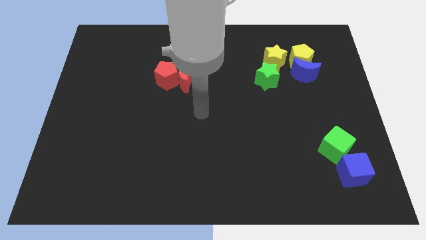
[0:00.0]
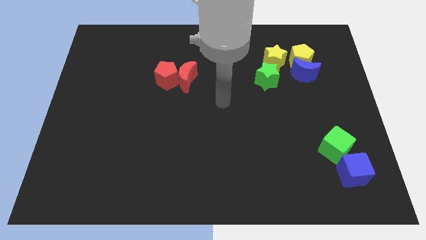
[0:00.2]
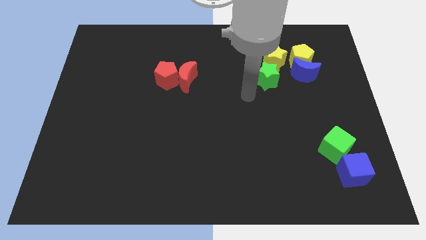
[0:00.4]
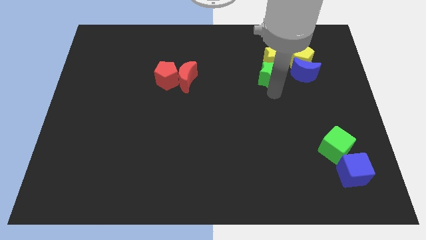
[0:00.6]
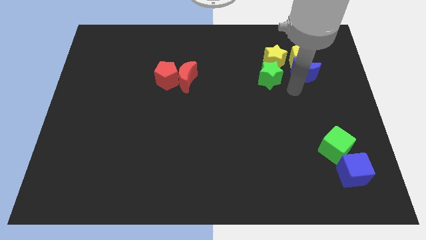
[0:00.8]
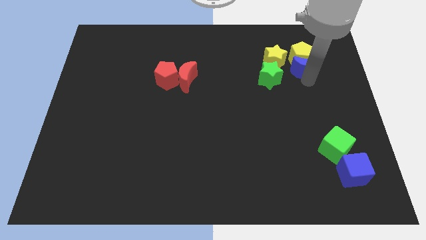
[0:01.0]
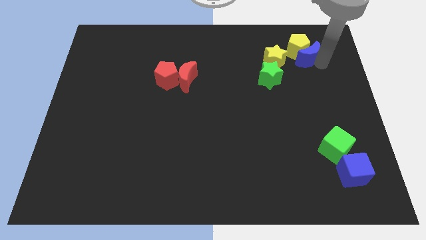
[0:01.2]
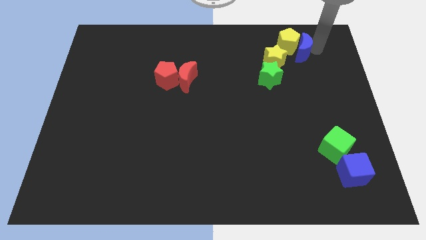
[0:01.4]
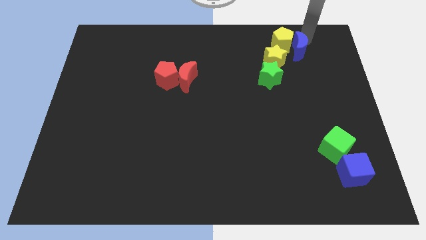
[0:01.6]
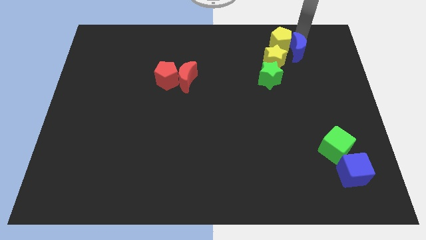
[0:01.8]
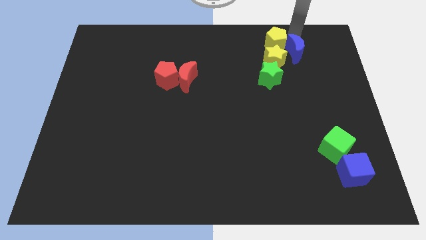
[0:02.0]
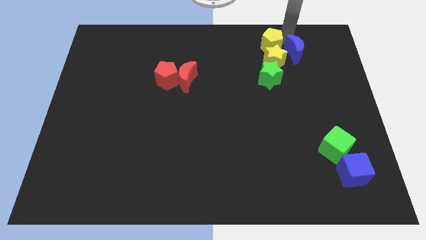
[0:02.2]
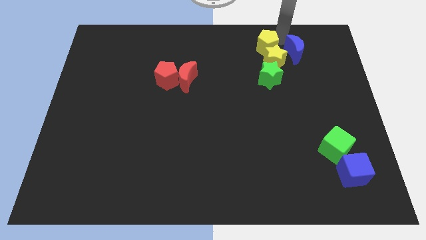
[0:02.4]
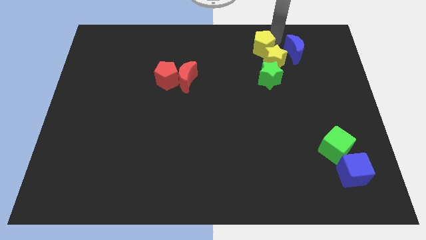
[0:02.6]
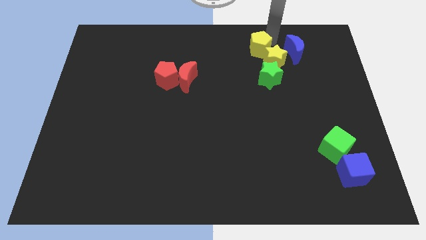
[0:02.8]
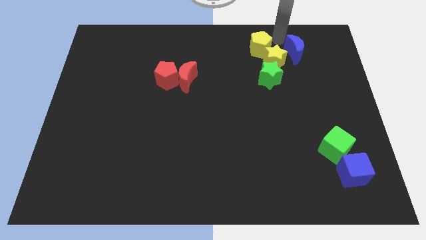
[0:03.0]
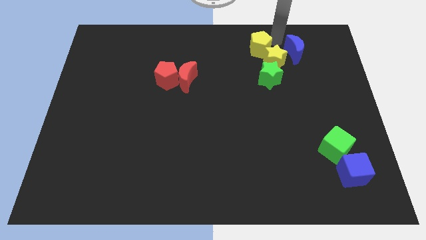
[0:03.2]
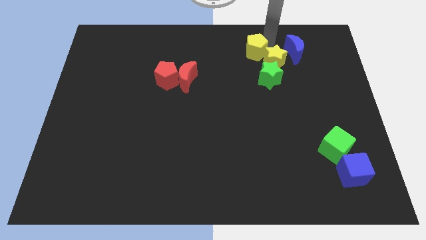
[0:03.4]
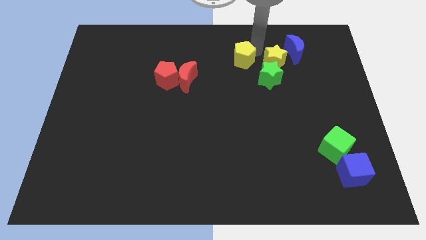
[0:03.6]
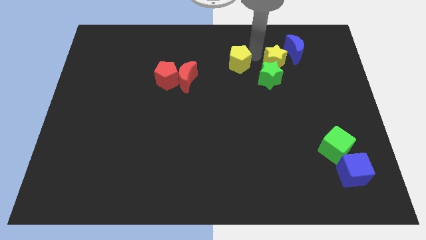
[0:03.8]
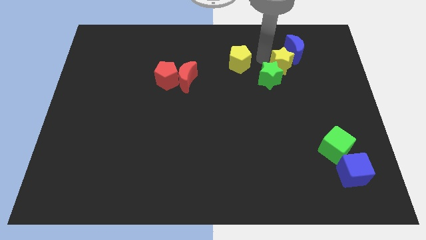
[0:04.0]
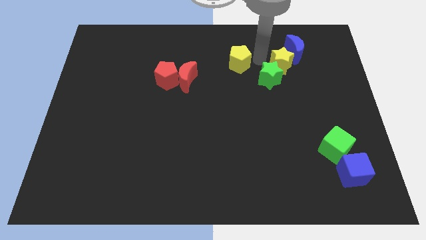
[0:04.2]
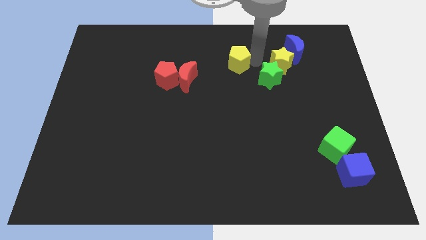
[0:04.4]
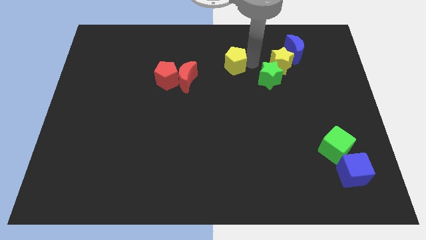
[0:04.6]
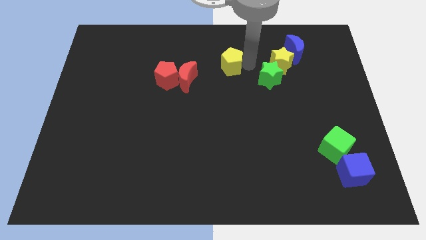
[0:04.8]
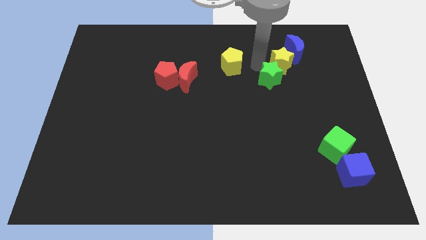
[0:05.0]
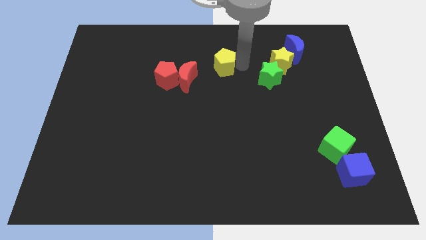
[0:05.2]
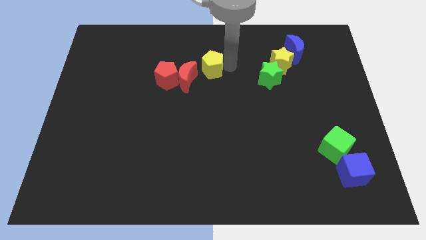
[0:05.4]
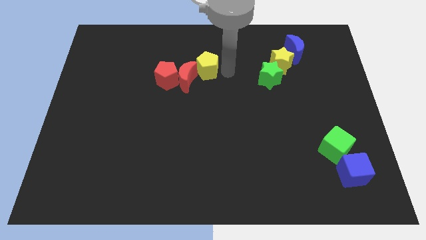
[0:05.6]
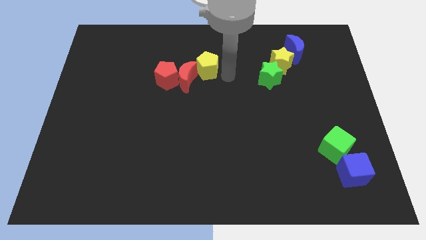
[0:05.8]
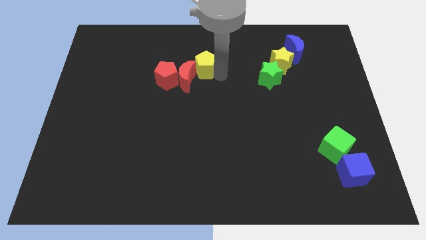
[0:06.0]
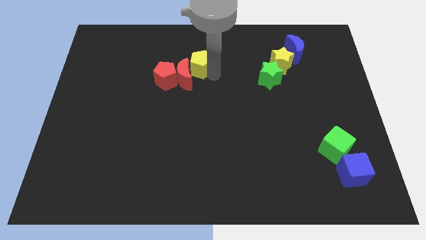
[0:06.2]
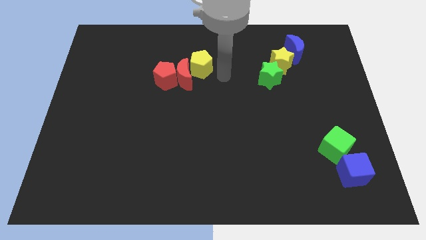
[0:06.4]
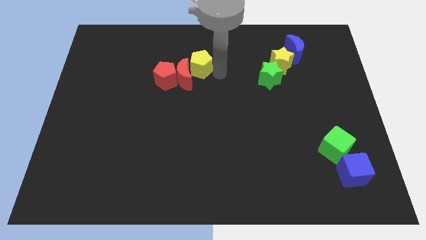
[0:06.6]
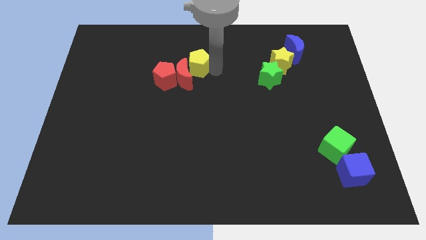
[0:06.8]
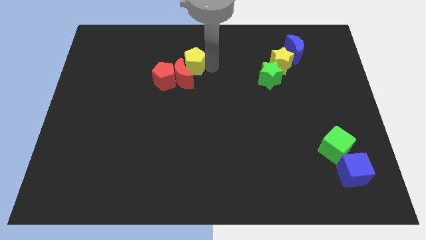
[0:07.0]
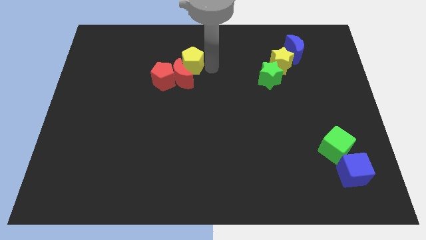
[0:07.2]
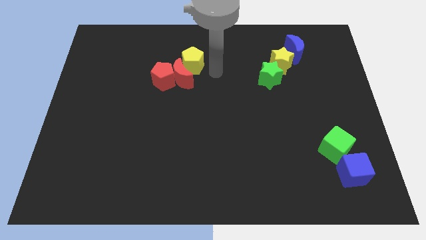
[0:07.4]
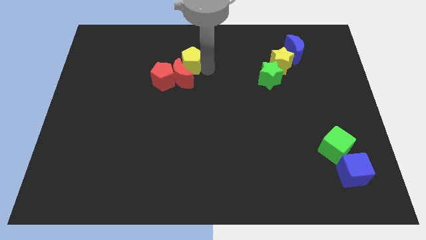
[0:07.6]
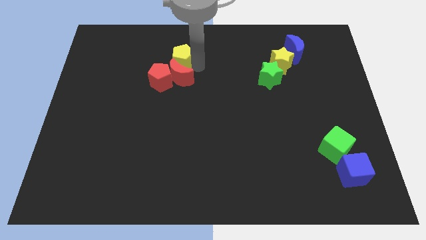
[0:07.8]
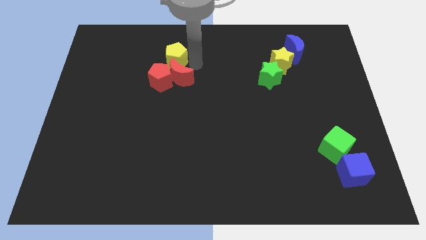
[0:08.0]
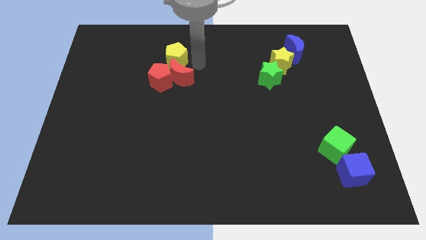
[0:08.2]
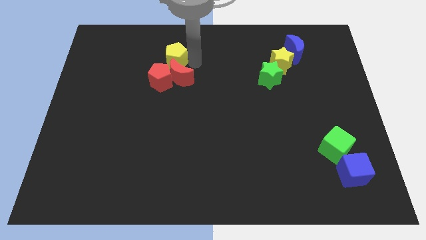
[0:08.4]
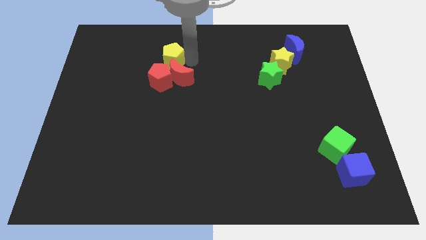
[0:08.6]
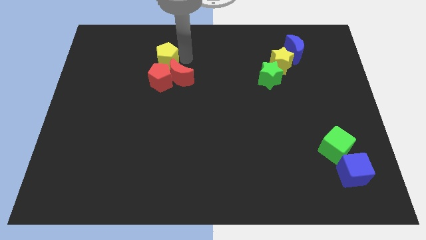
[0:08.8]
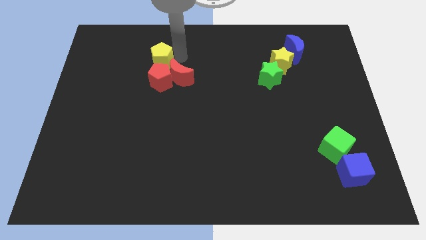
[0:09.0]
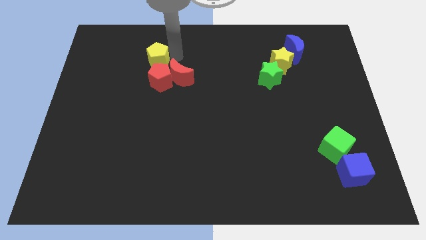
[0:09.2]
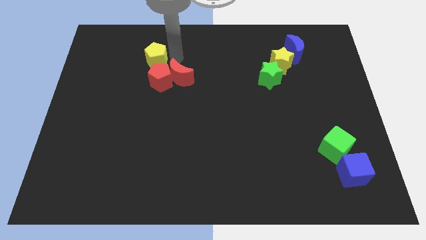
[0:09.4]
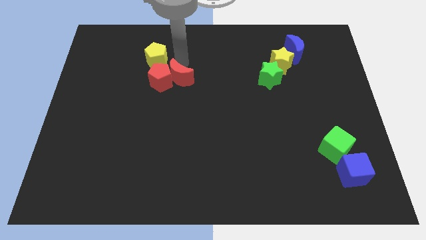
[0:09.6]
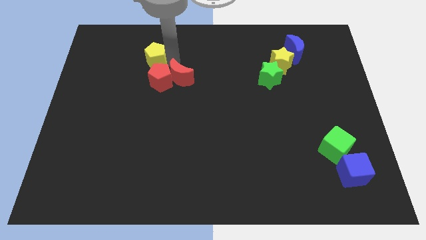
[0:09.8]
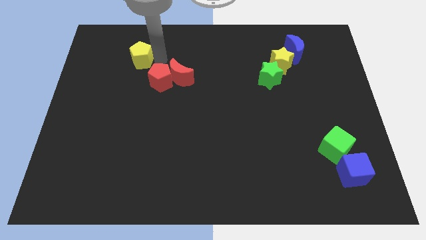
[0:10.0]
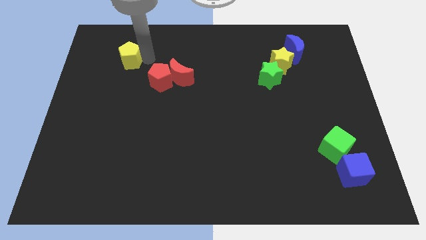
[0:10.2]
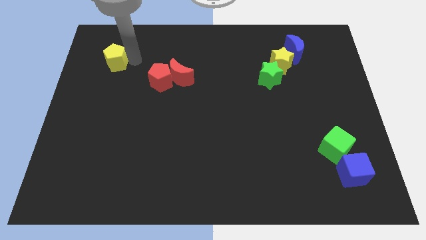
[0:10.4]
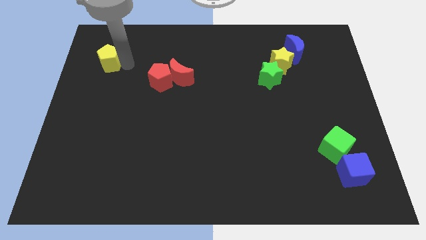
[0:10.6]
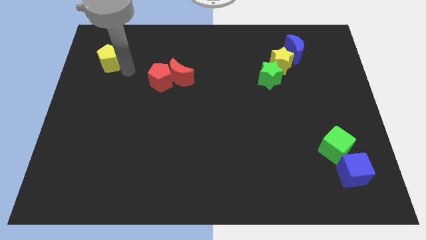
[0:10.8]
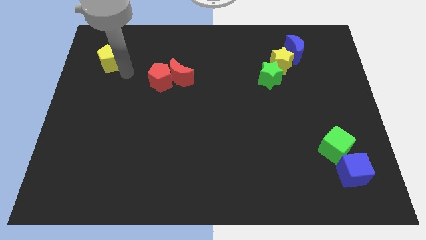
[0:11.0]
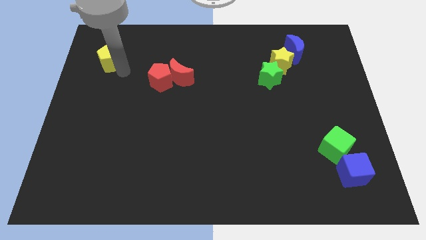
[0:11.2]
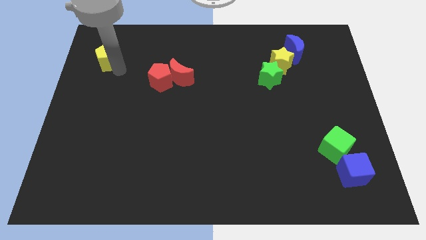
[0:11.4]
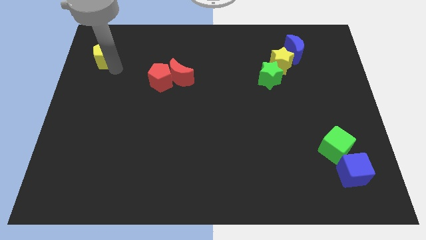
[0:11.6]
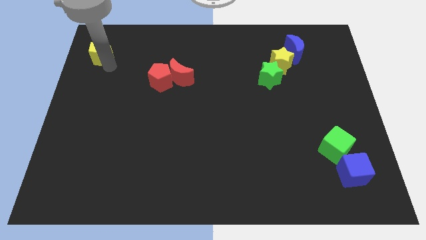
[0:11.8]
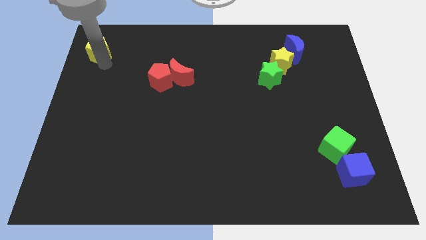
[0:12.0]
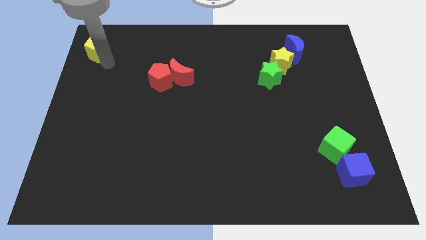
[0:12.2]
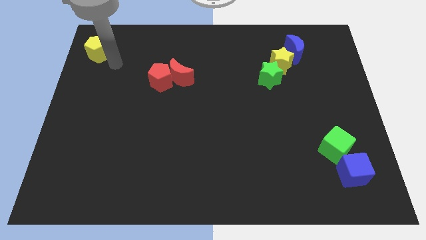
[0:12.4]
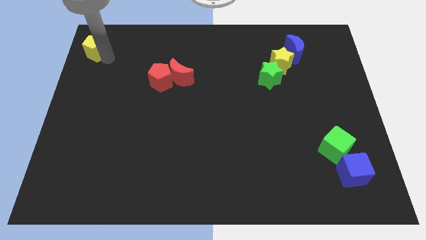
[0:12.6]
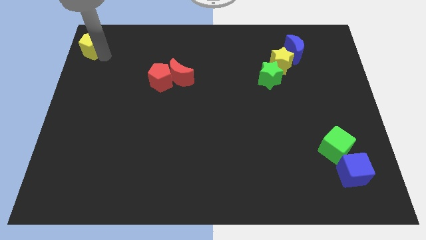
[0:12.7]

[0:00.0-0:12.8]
push the yellow pentagon to the top left corner
